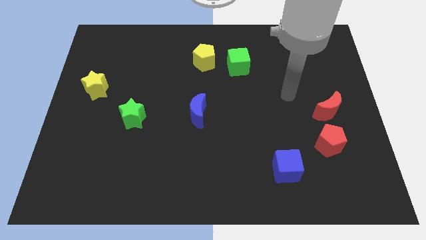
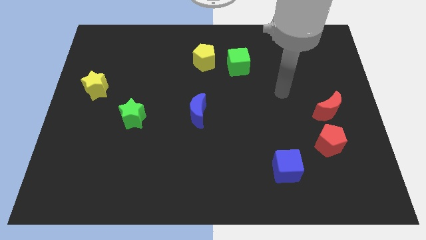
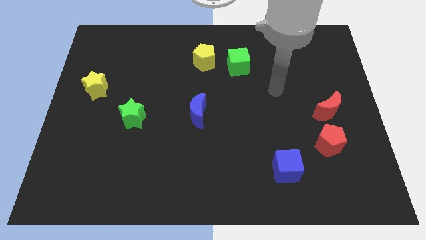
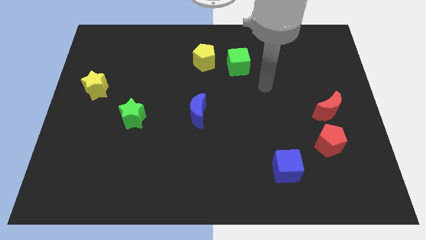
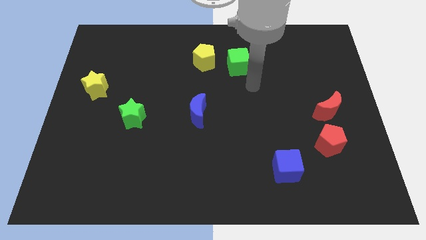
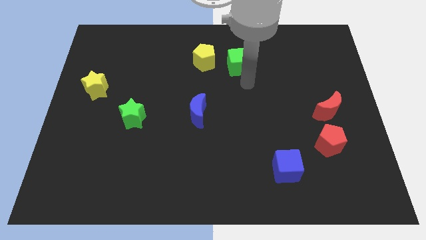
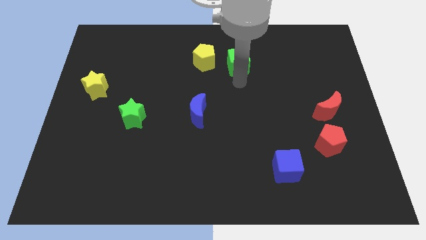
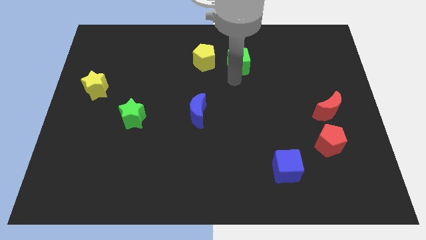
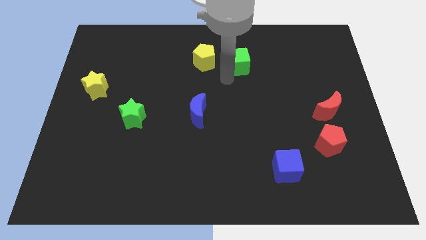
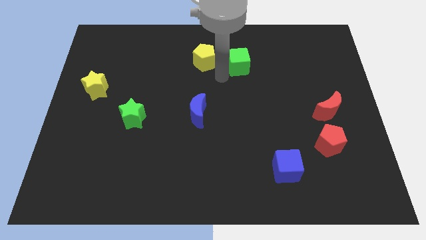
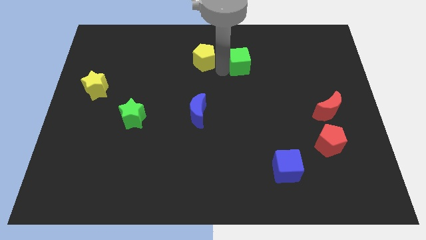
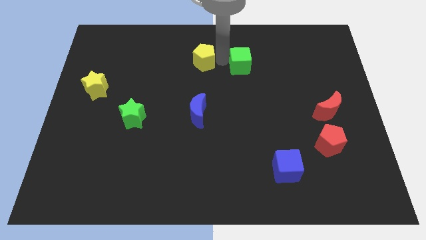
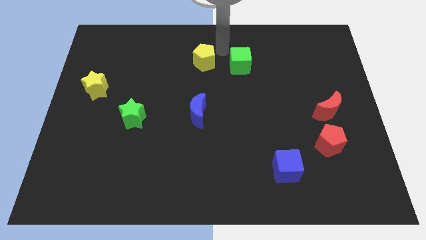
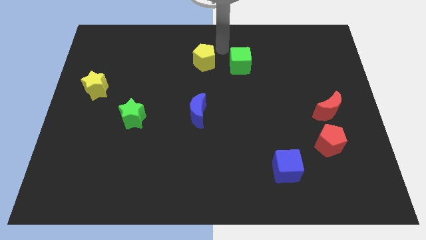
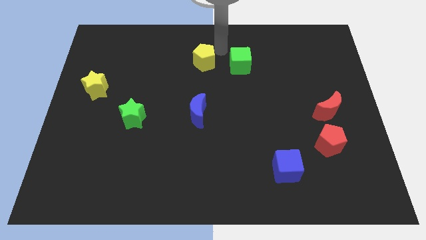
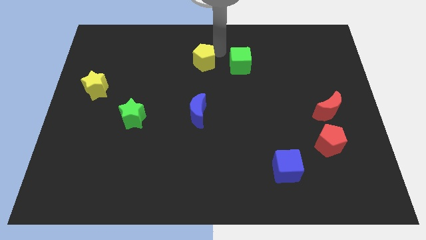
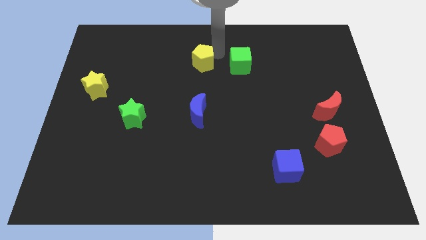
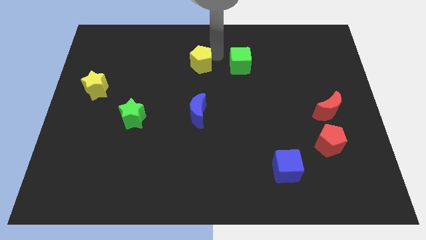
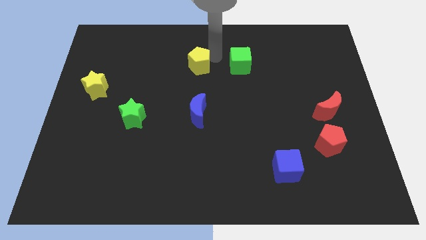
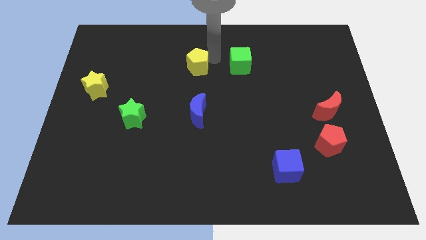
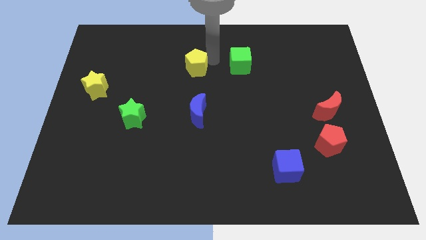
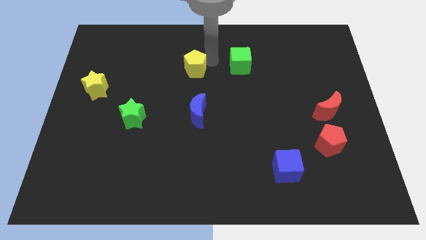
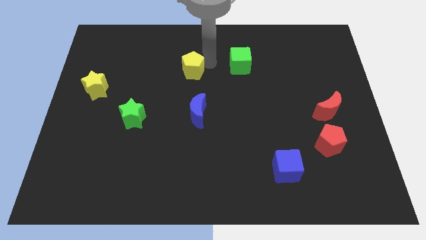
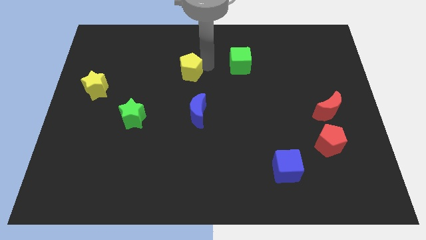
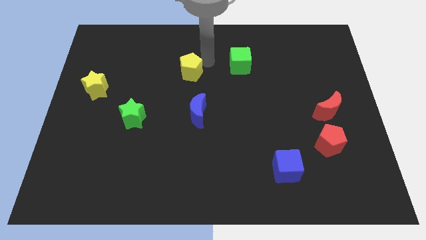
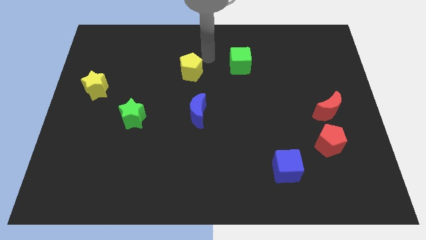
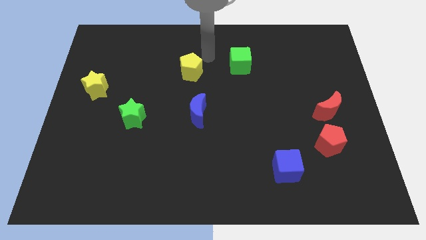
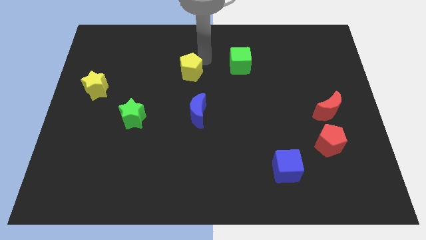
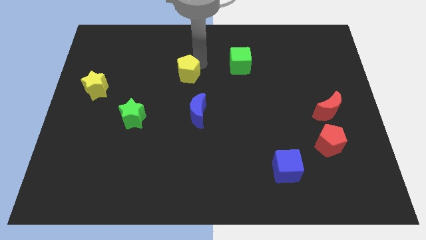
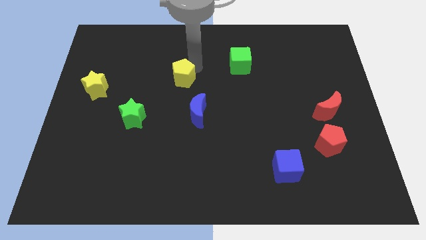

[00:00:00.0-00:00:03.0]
slightly push the yellow pentagon downwards and to the left

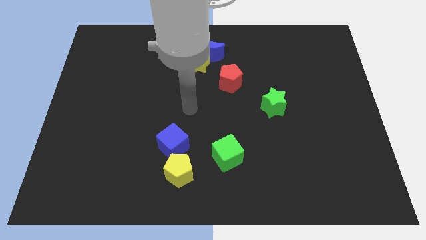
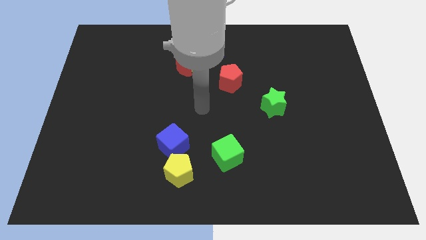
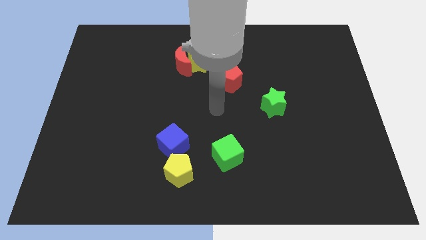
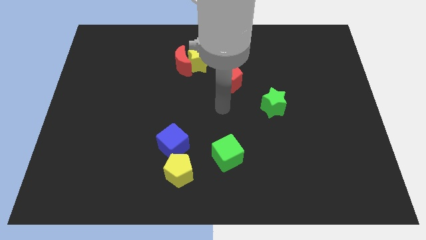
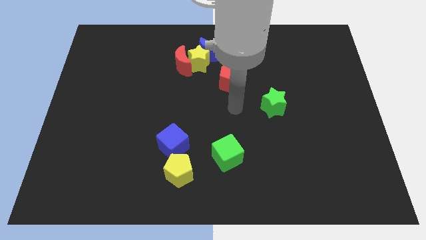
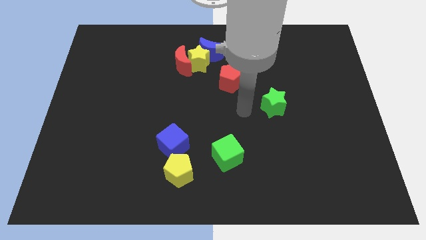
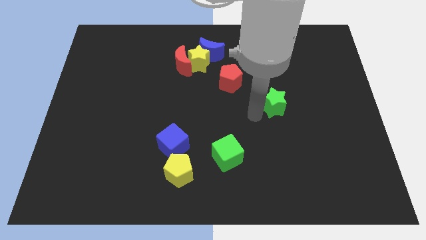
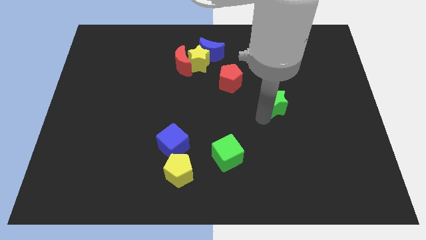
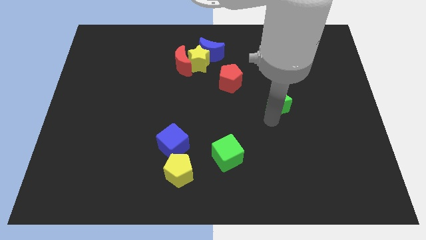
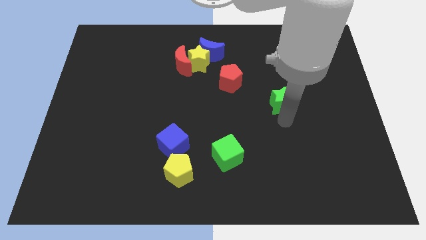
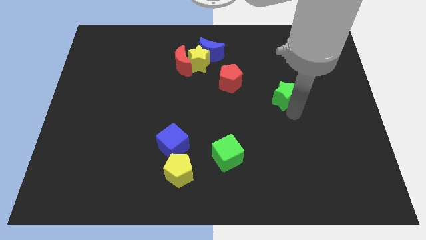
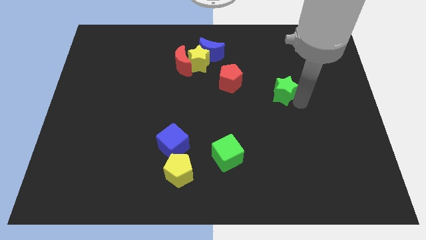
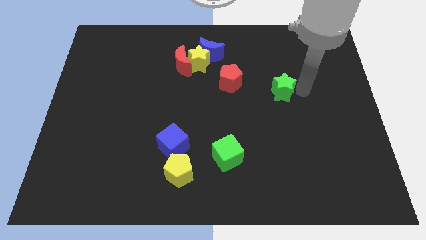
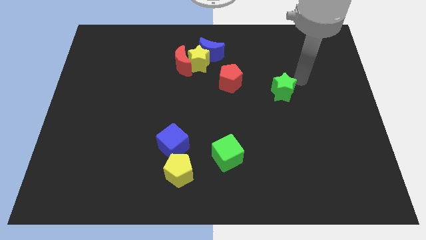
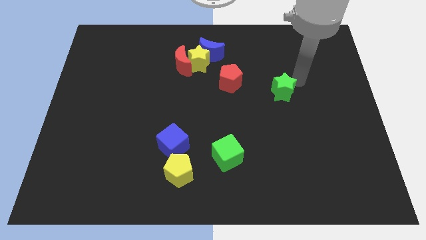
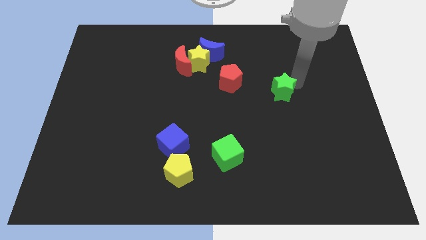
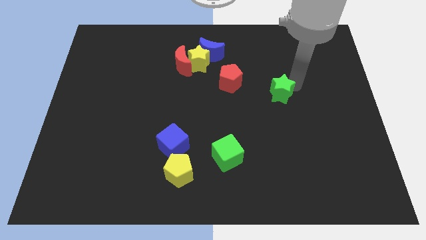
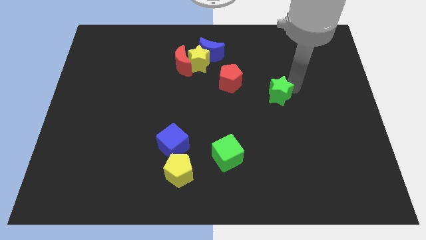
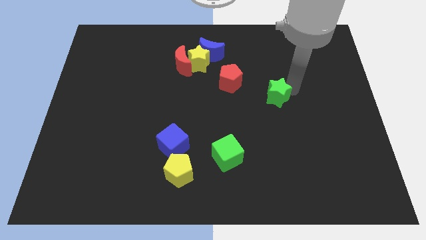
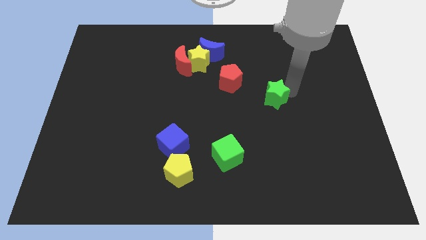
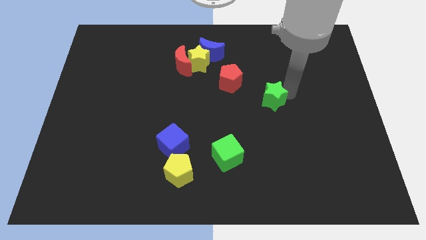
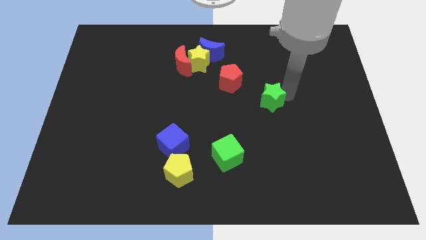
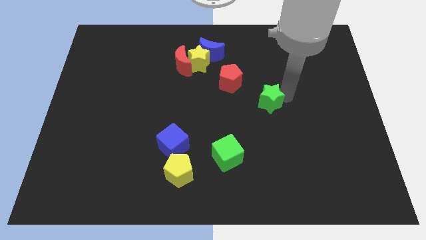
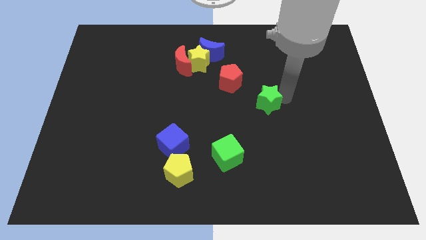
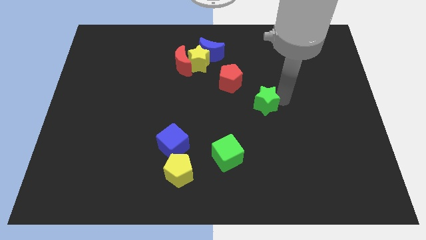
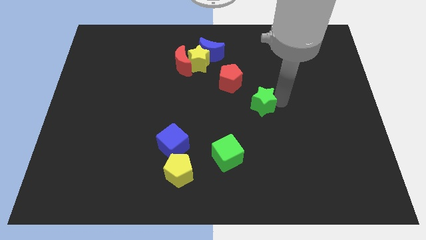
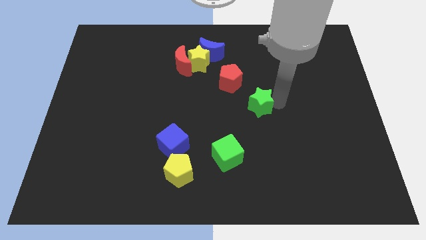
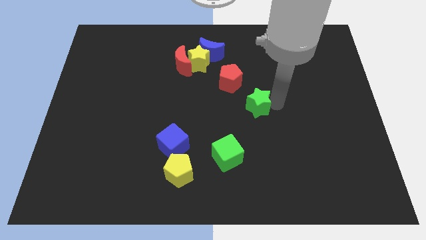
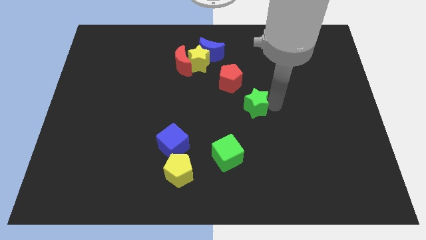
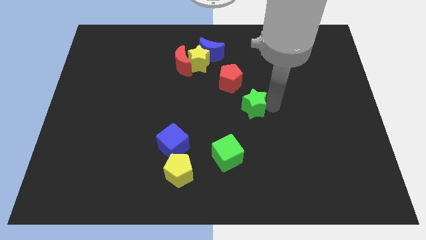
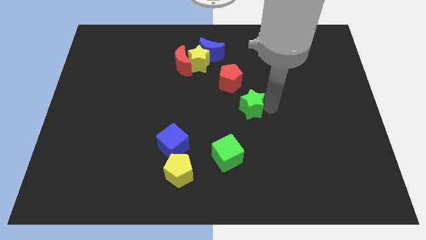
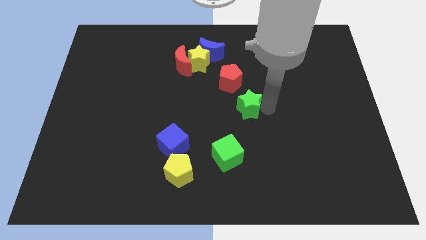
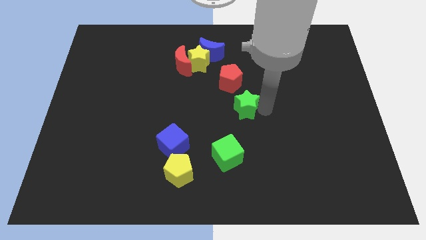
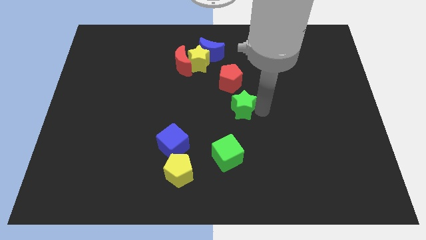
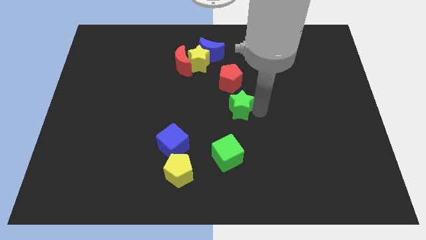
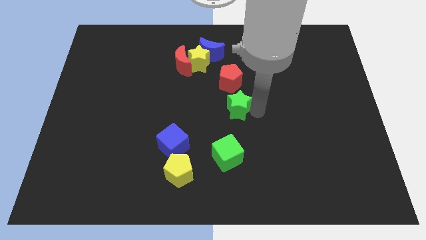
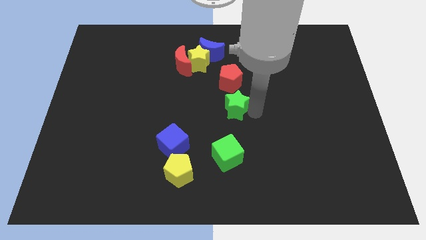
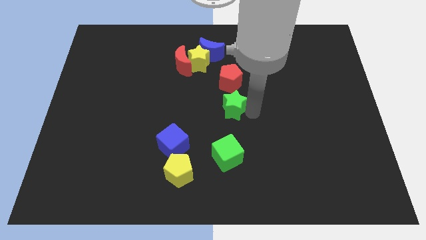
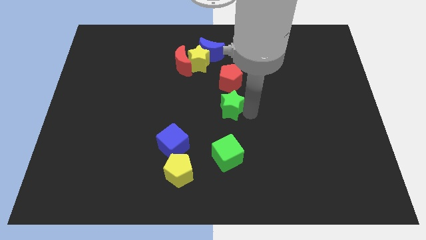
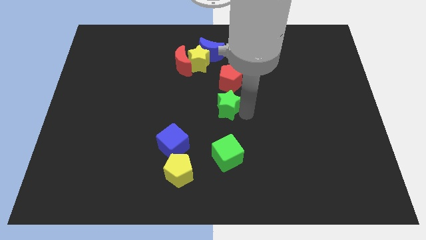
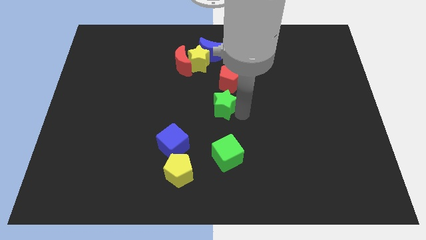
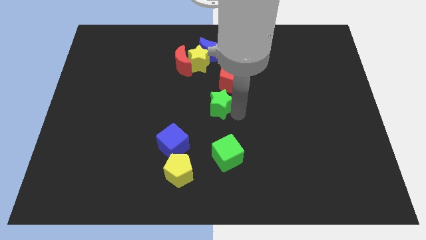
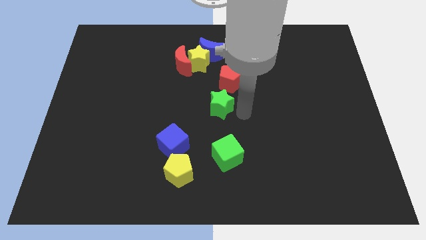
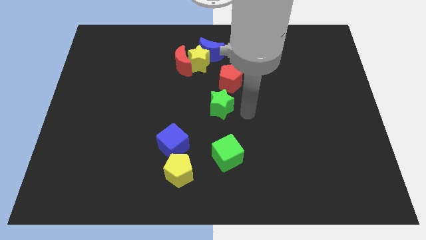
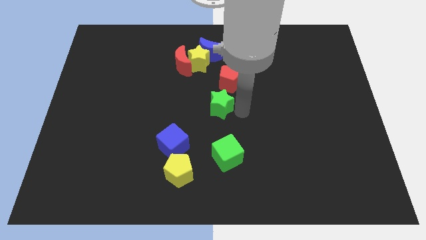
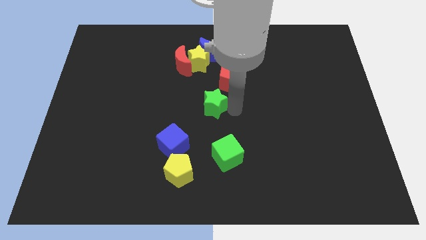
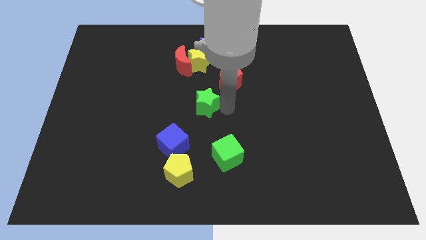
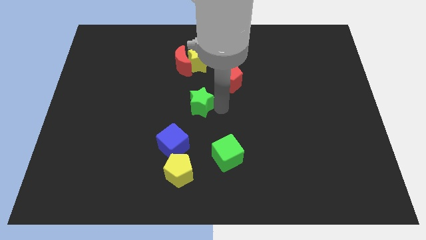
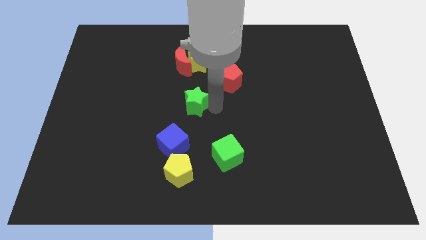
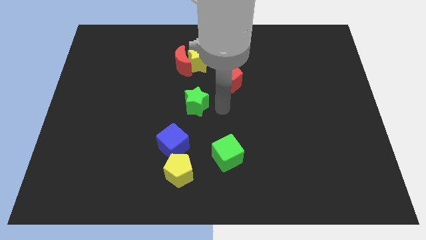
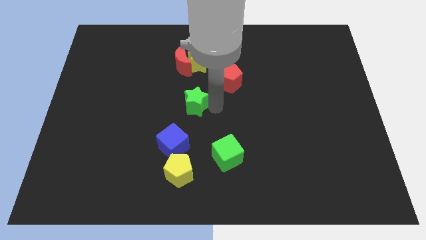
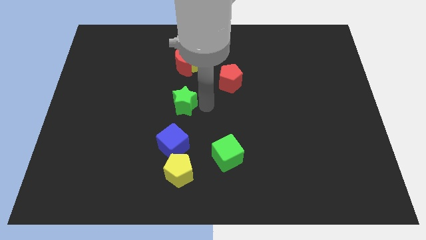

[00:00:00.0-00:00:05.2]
move the green star left
